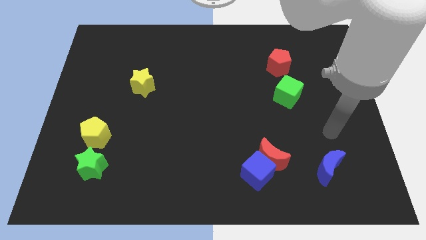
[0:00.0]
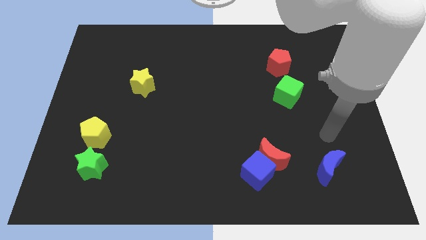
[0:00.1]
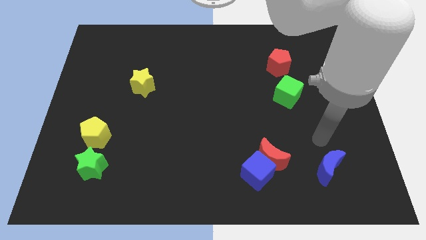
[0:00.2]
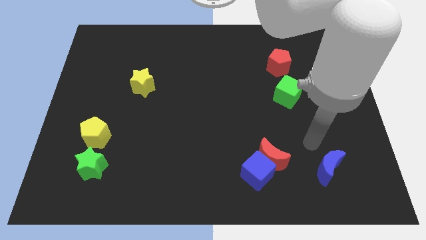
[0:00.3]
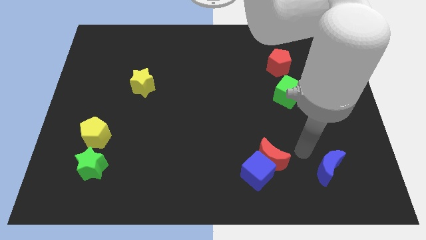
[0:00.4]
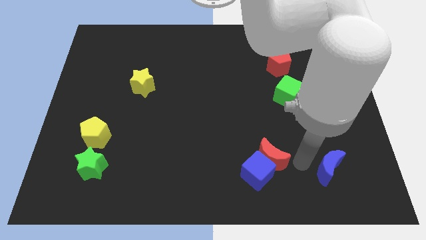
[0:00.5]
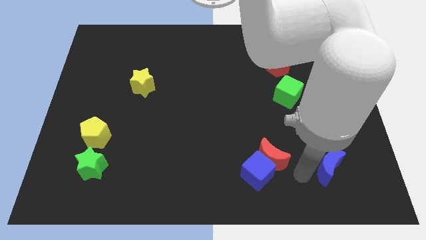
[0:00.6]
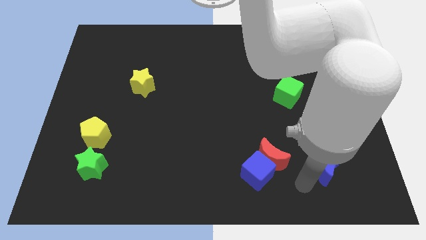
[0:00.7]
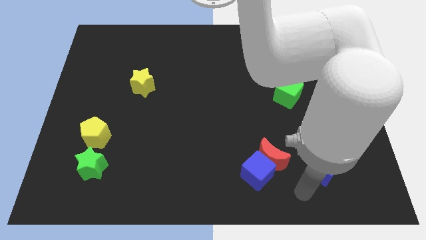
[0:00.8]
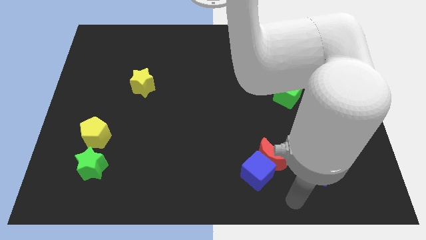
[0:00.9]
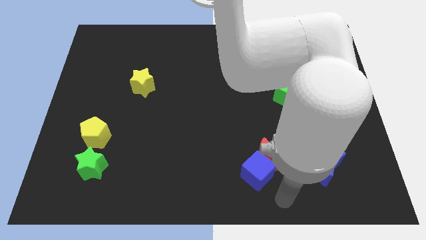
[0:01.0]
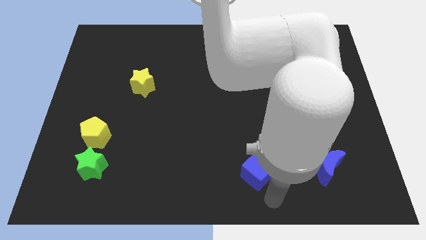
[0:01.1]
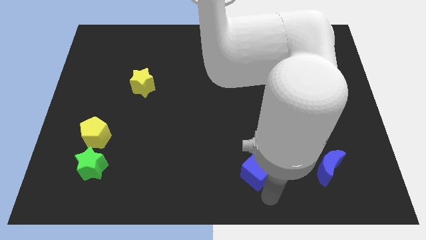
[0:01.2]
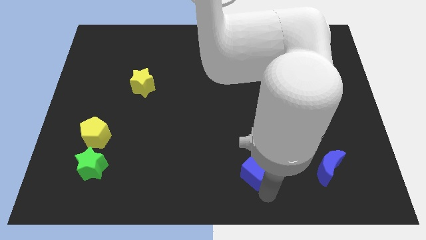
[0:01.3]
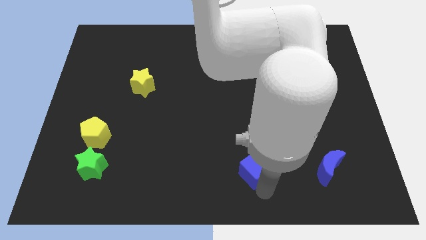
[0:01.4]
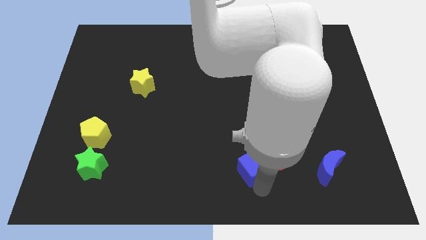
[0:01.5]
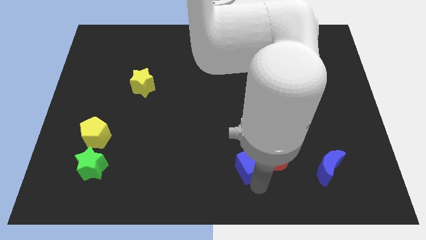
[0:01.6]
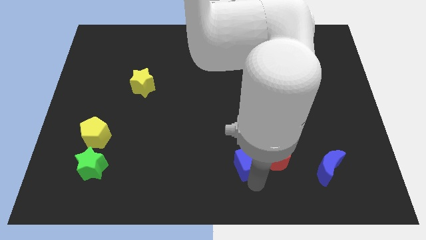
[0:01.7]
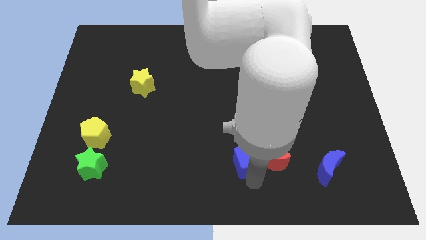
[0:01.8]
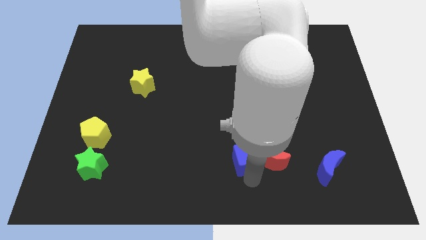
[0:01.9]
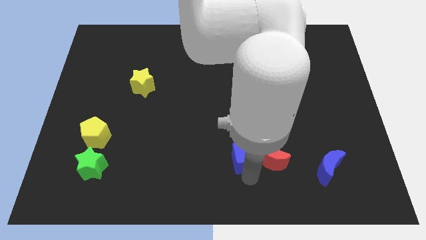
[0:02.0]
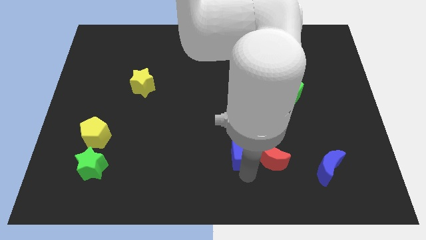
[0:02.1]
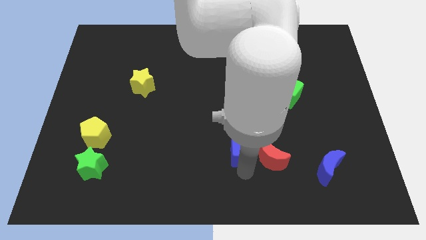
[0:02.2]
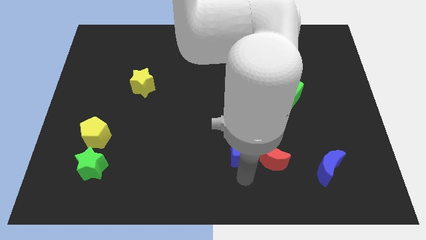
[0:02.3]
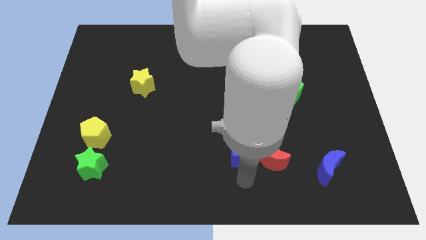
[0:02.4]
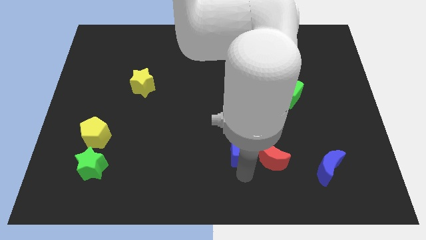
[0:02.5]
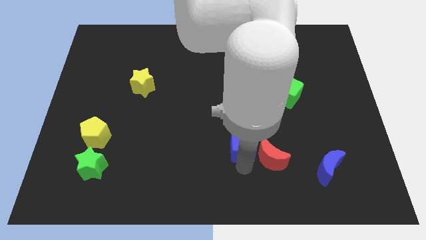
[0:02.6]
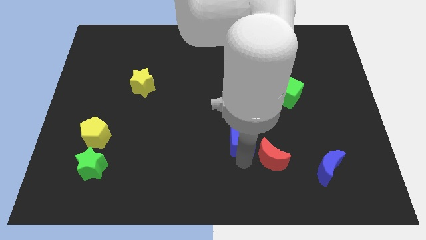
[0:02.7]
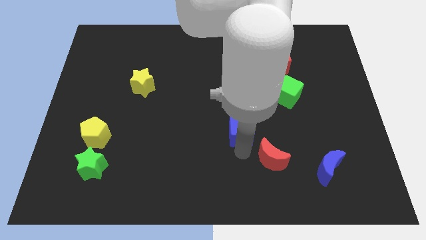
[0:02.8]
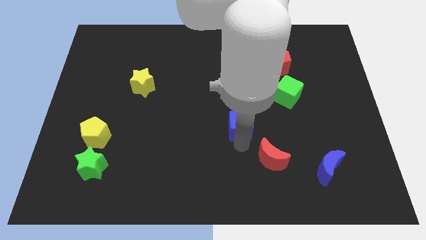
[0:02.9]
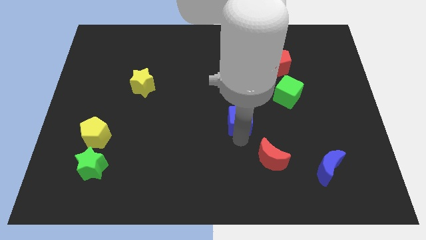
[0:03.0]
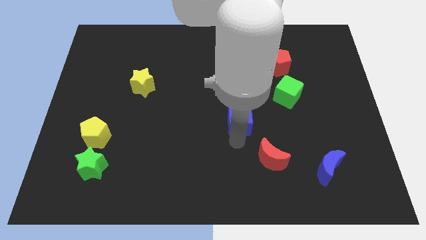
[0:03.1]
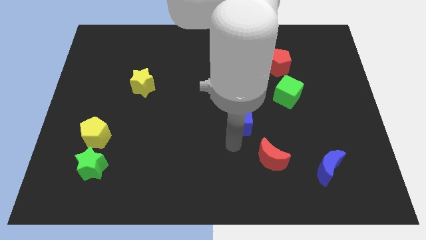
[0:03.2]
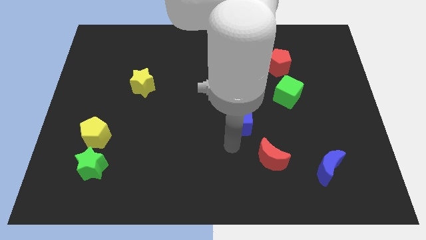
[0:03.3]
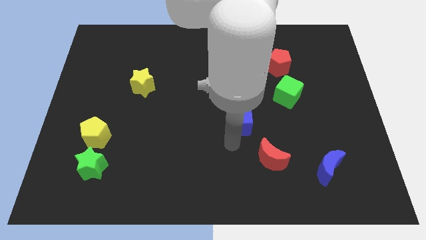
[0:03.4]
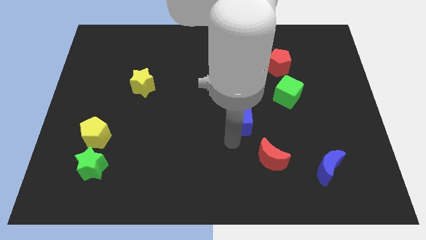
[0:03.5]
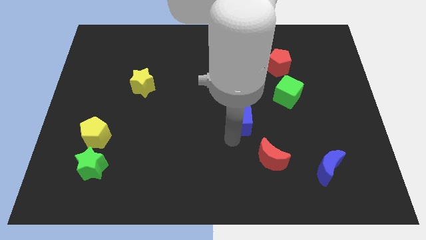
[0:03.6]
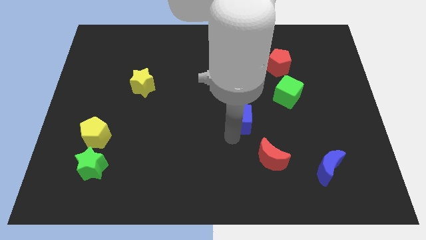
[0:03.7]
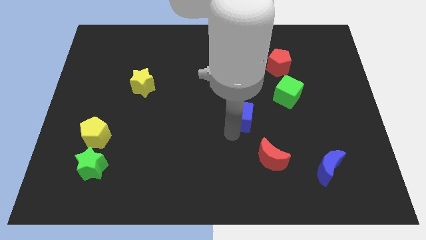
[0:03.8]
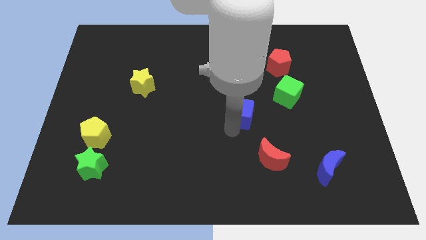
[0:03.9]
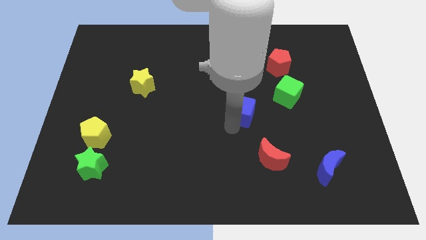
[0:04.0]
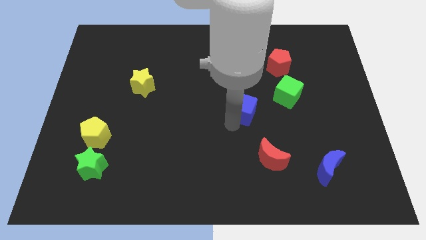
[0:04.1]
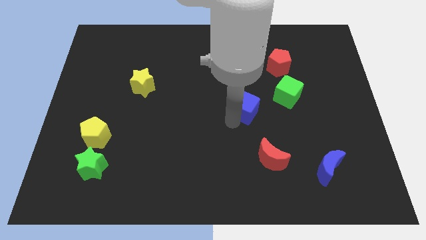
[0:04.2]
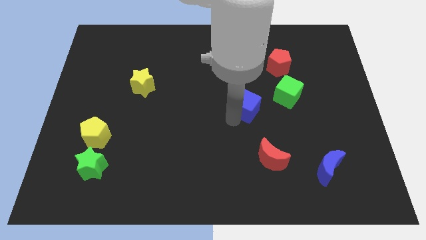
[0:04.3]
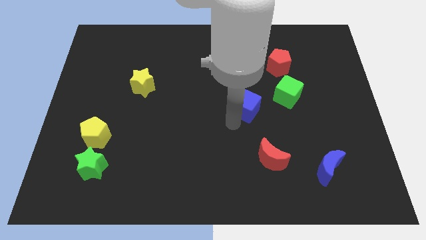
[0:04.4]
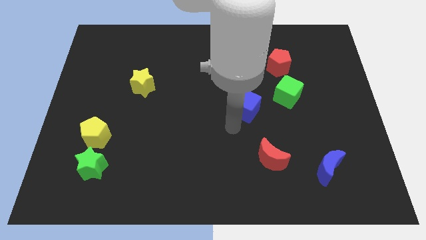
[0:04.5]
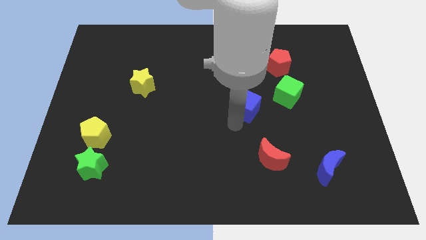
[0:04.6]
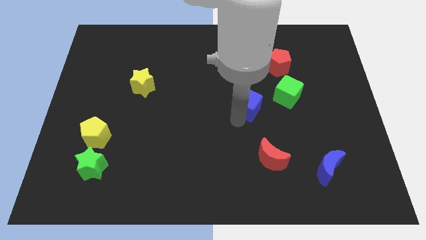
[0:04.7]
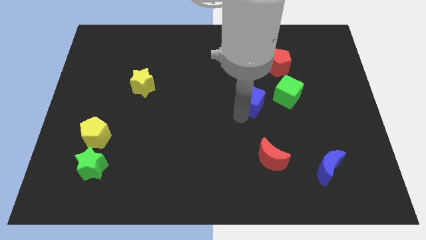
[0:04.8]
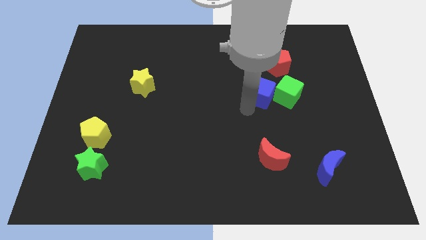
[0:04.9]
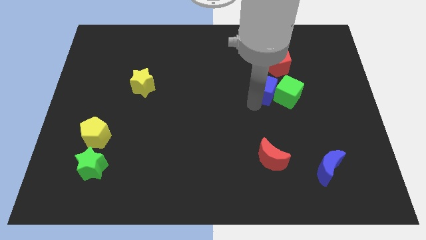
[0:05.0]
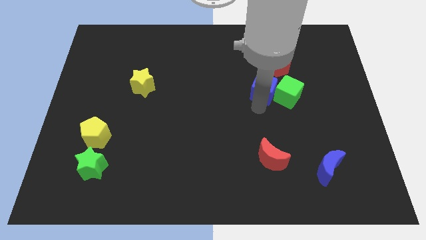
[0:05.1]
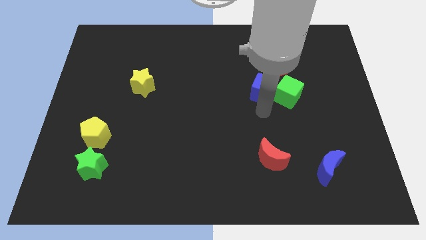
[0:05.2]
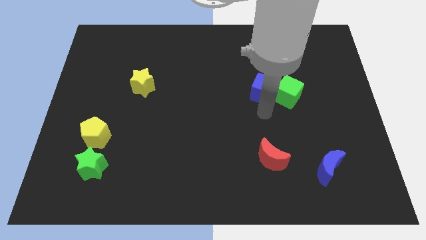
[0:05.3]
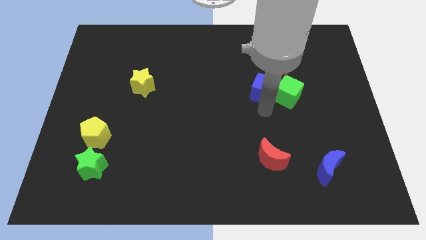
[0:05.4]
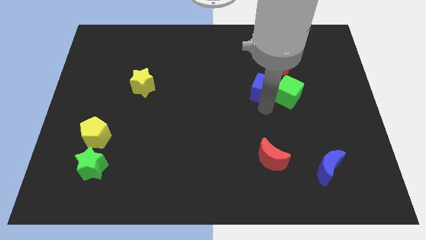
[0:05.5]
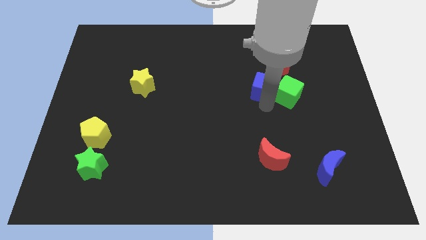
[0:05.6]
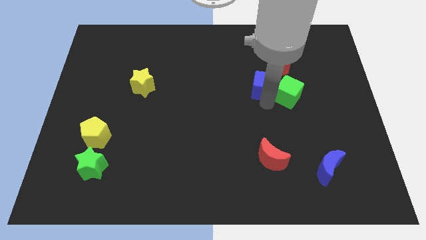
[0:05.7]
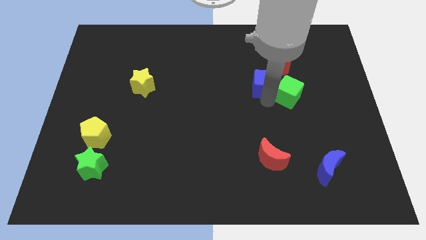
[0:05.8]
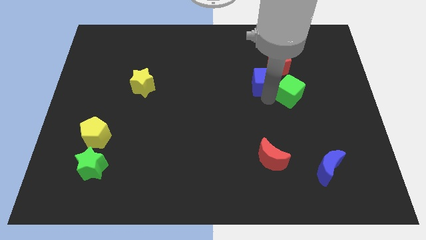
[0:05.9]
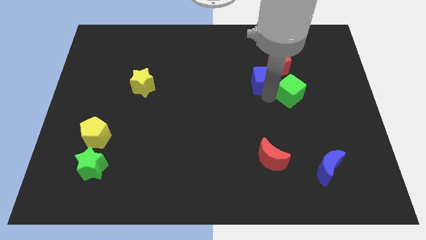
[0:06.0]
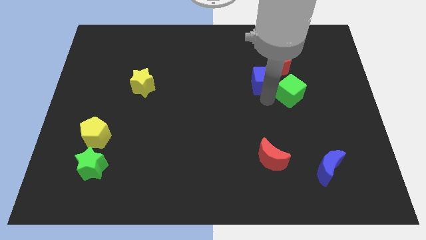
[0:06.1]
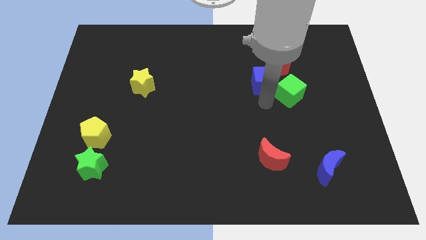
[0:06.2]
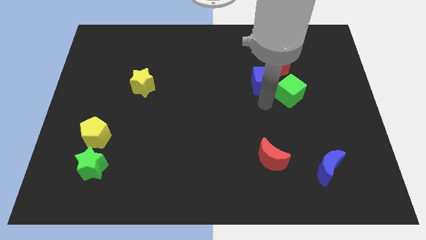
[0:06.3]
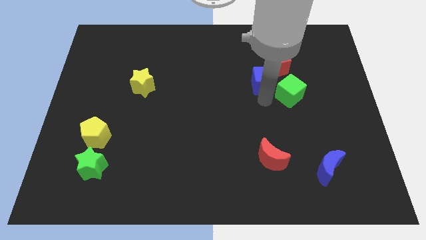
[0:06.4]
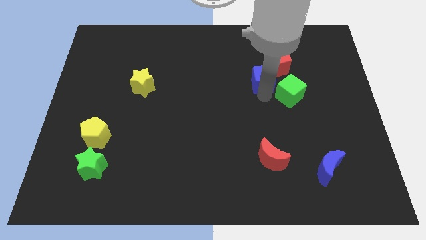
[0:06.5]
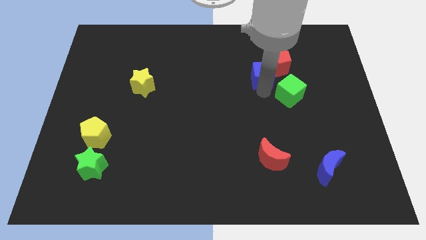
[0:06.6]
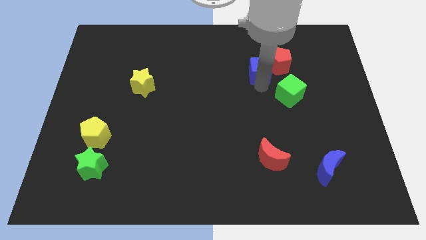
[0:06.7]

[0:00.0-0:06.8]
put the blue cube towards the red pentagon

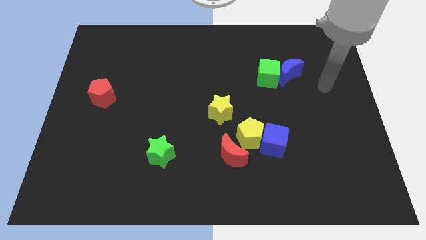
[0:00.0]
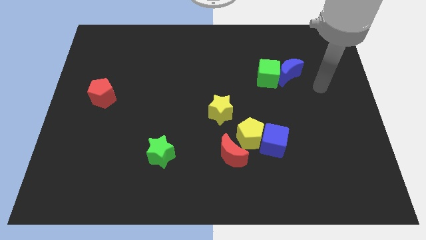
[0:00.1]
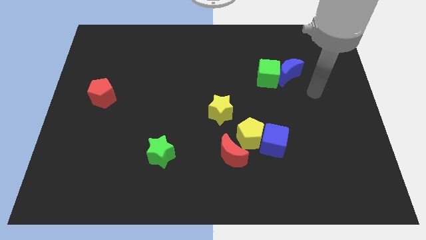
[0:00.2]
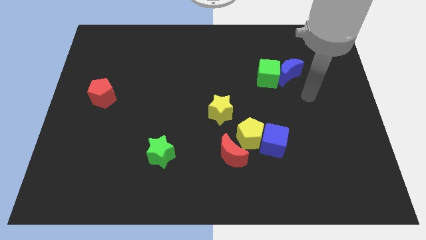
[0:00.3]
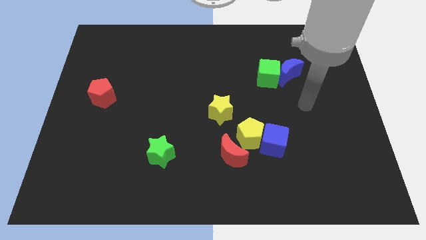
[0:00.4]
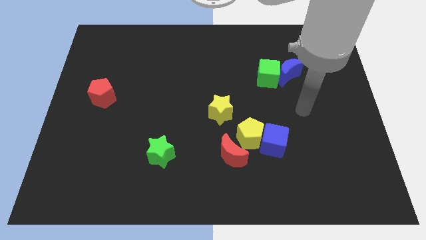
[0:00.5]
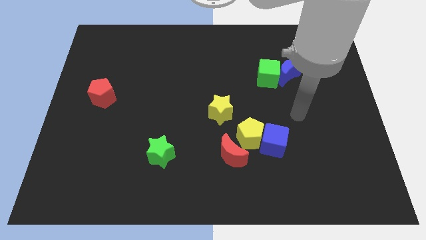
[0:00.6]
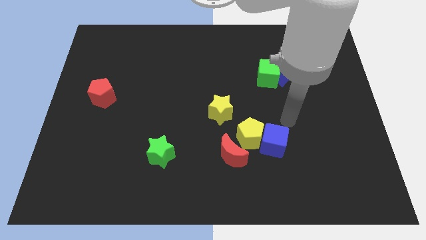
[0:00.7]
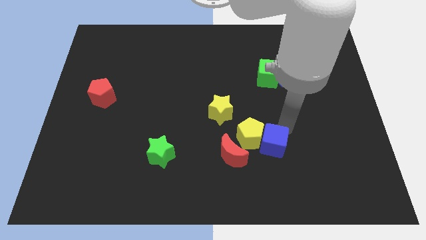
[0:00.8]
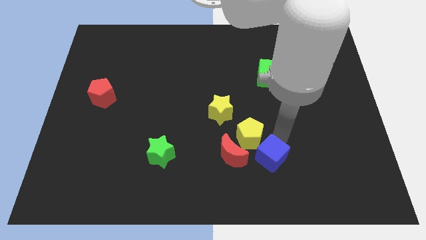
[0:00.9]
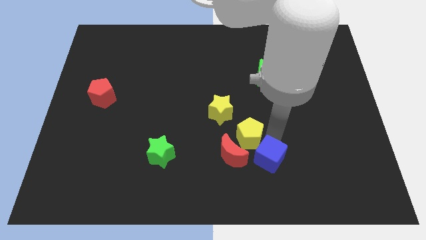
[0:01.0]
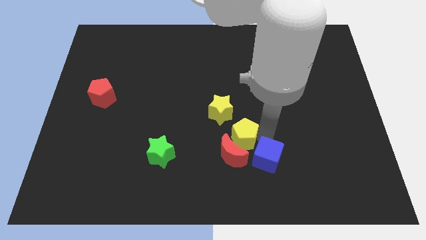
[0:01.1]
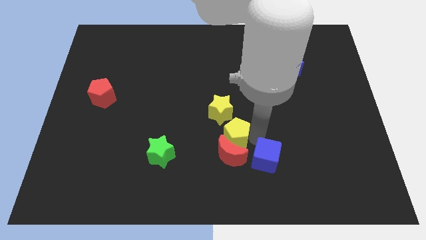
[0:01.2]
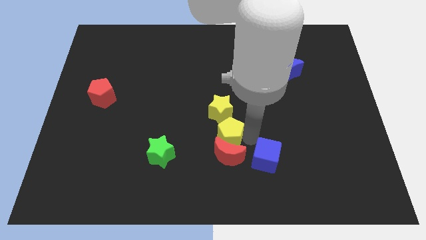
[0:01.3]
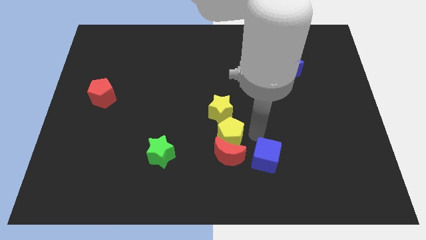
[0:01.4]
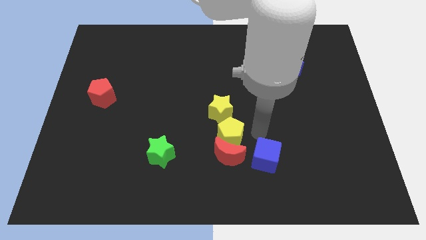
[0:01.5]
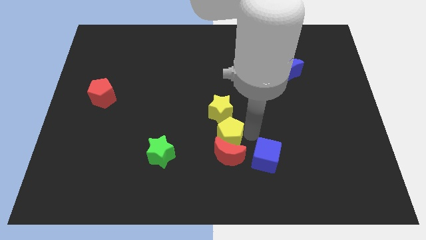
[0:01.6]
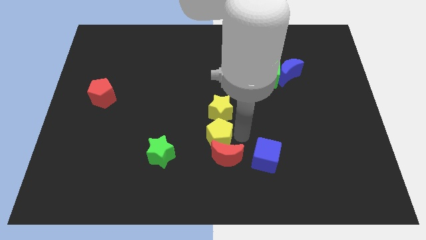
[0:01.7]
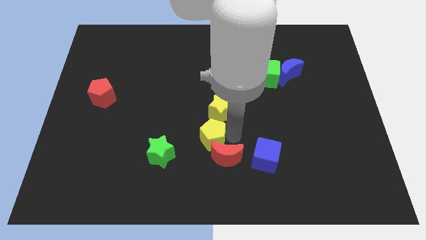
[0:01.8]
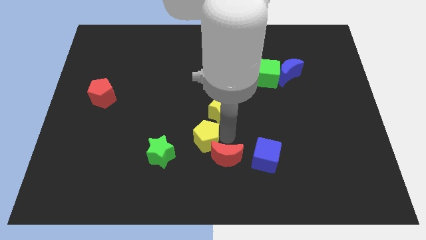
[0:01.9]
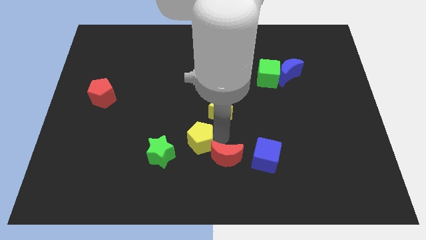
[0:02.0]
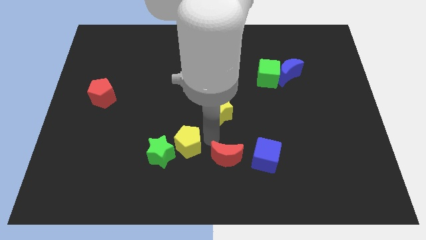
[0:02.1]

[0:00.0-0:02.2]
put the yellow pentagon close to the green star
